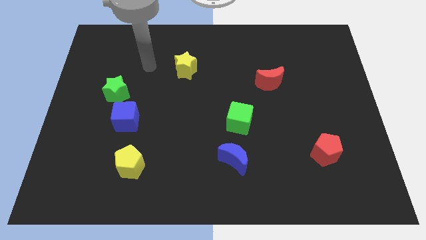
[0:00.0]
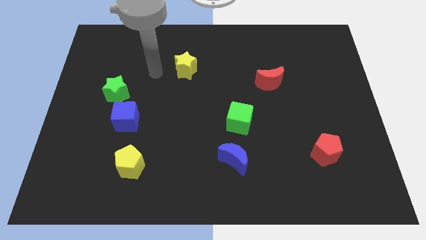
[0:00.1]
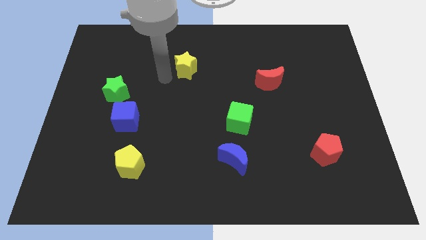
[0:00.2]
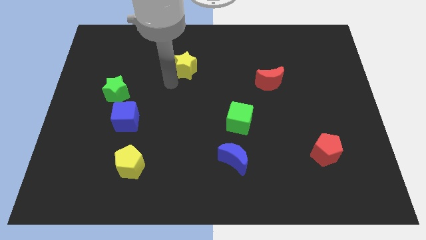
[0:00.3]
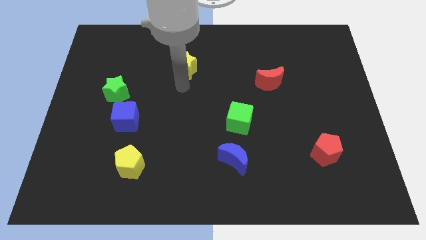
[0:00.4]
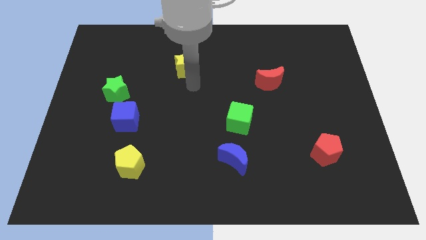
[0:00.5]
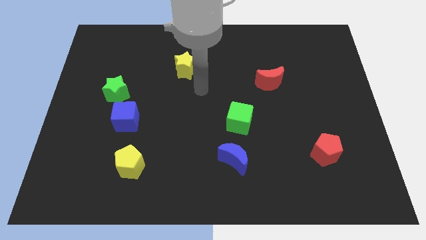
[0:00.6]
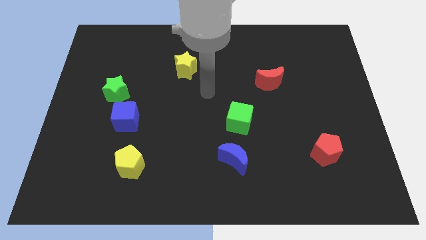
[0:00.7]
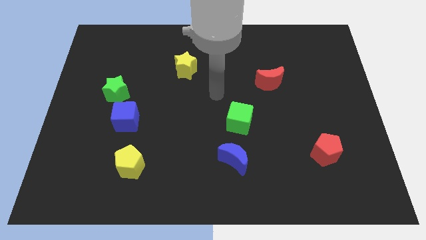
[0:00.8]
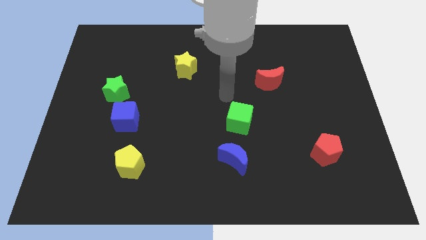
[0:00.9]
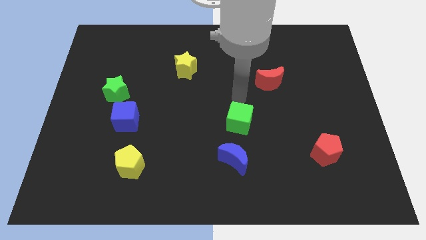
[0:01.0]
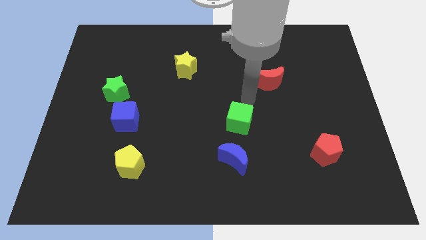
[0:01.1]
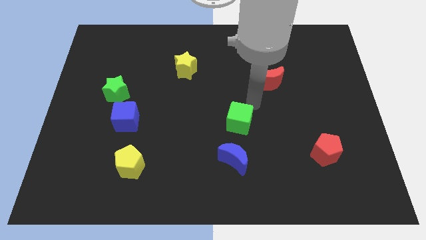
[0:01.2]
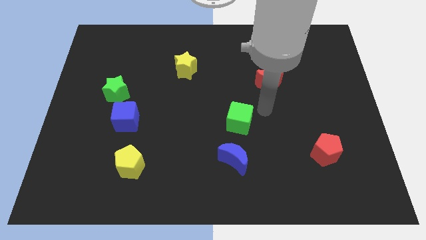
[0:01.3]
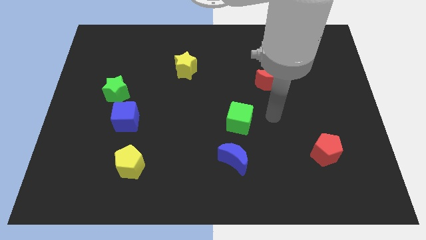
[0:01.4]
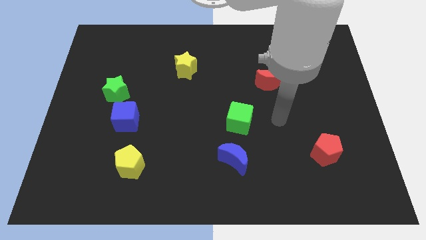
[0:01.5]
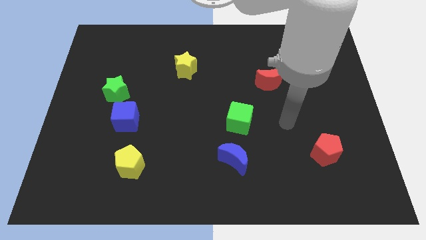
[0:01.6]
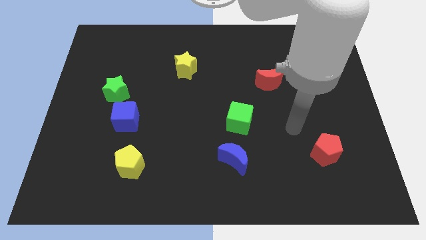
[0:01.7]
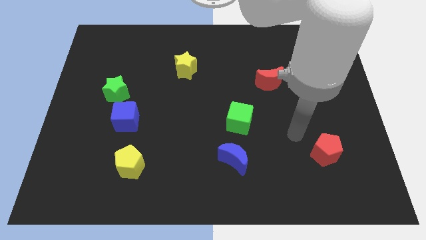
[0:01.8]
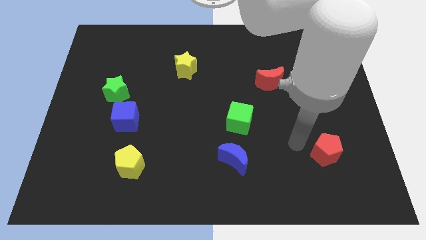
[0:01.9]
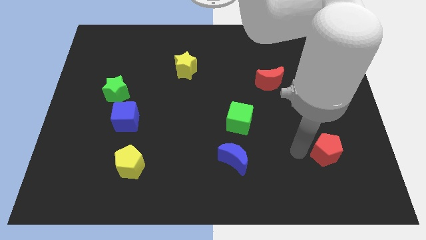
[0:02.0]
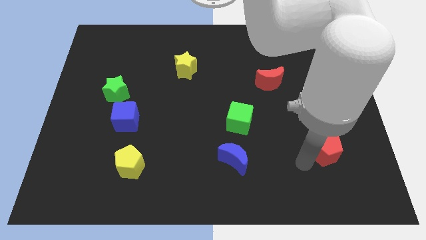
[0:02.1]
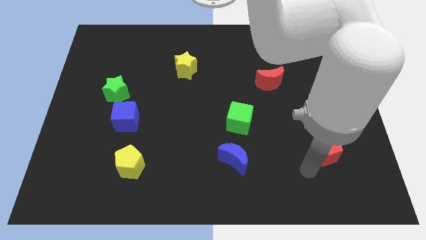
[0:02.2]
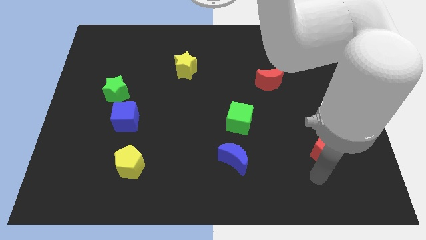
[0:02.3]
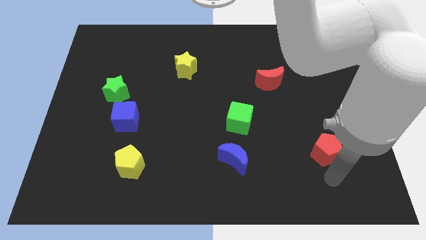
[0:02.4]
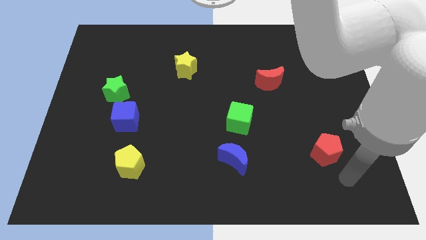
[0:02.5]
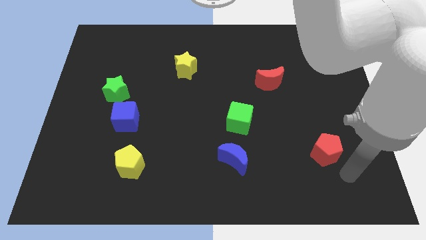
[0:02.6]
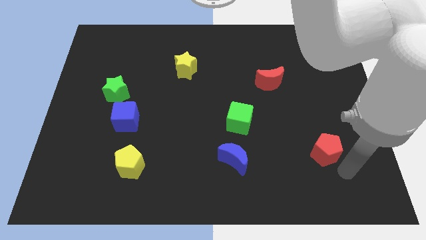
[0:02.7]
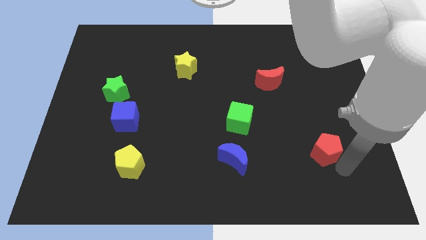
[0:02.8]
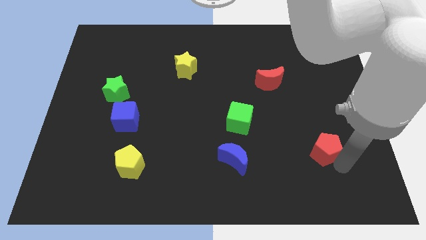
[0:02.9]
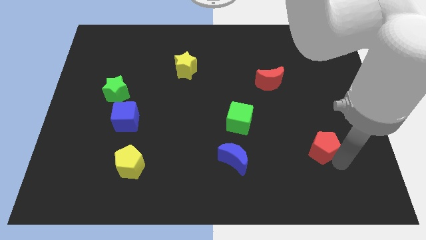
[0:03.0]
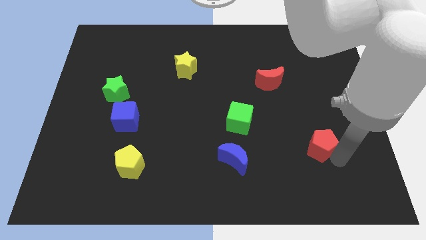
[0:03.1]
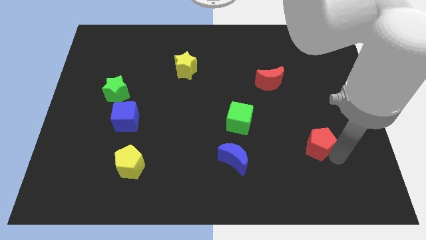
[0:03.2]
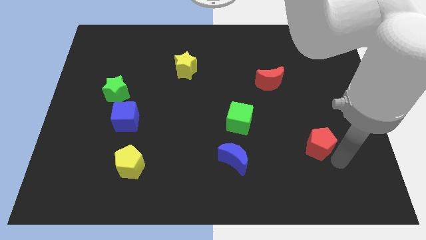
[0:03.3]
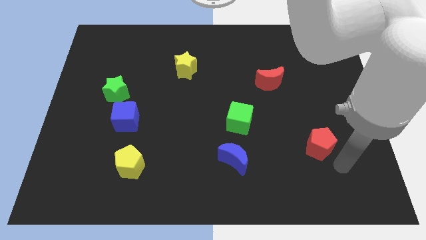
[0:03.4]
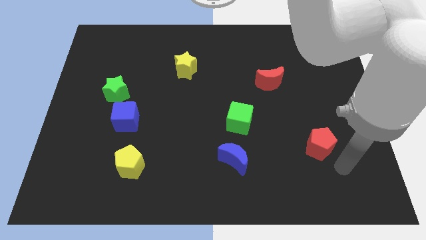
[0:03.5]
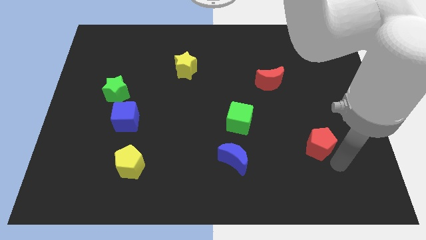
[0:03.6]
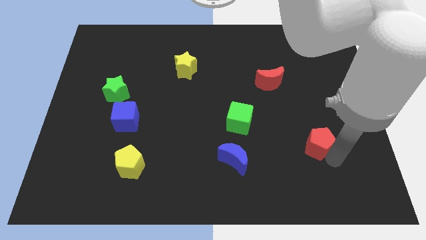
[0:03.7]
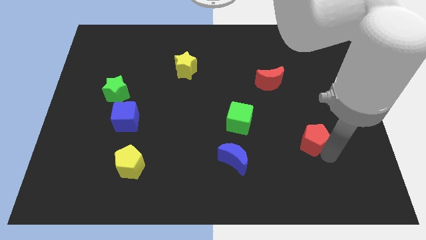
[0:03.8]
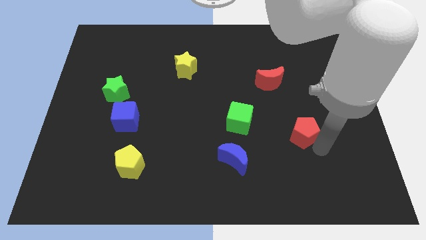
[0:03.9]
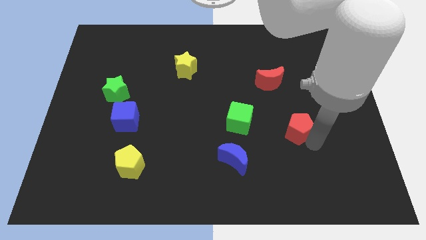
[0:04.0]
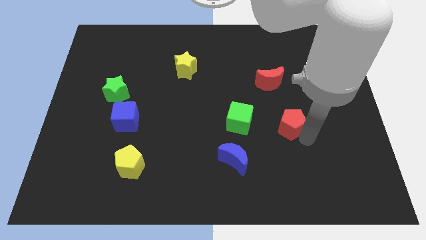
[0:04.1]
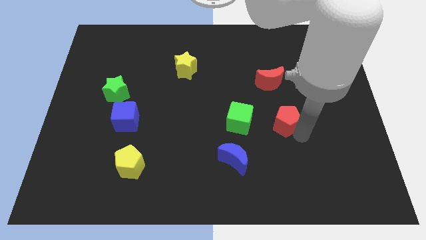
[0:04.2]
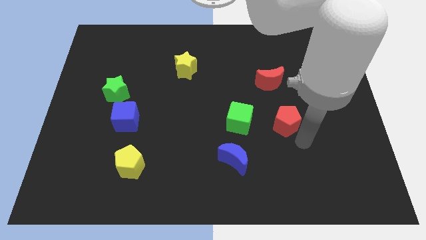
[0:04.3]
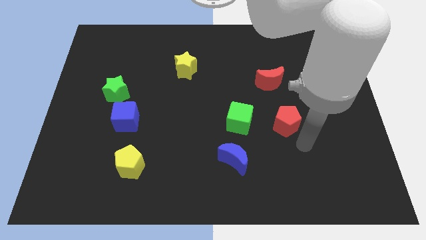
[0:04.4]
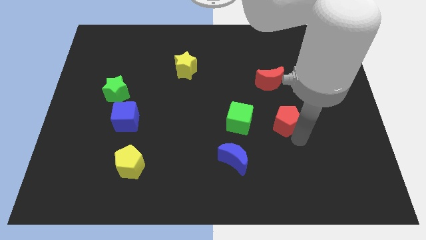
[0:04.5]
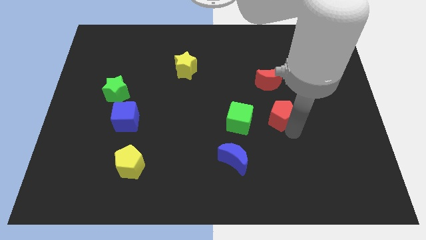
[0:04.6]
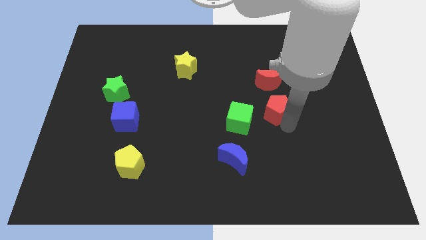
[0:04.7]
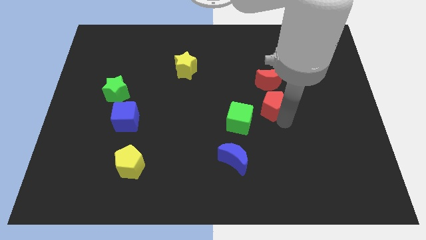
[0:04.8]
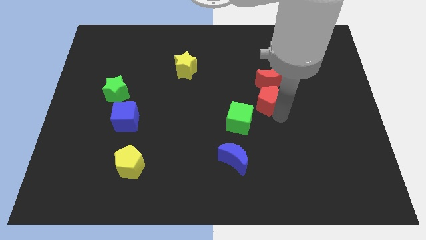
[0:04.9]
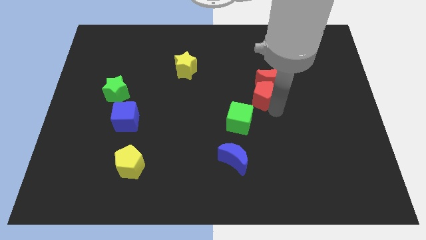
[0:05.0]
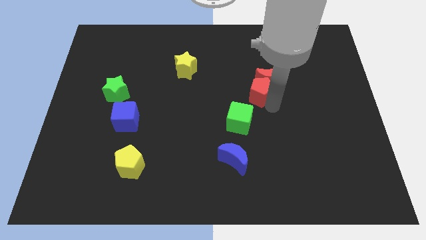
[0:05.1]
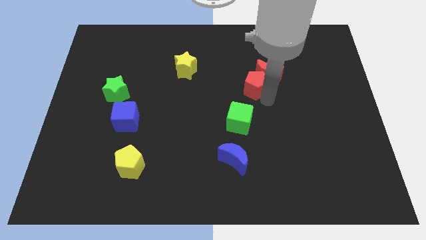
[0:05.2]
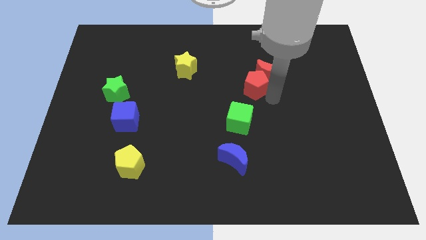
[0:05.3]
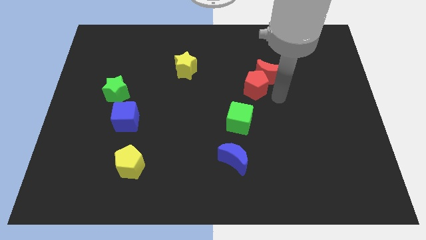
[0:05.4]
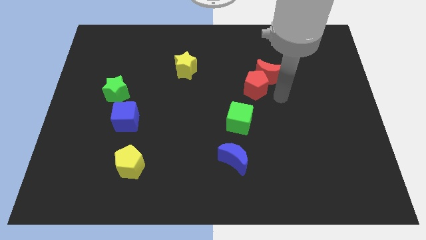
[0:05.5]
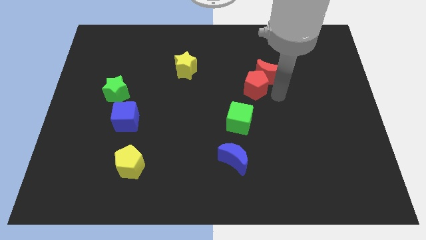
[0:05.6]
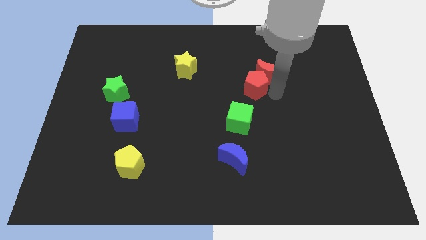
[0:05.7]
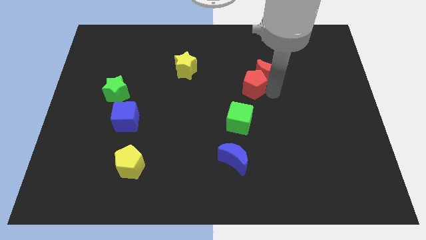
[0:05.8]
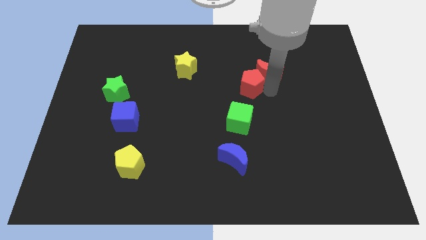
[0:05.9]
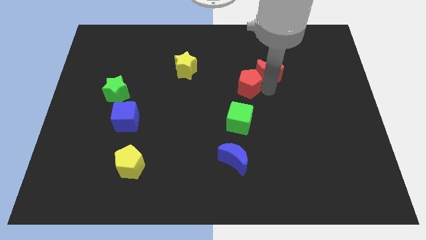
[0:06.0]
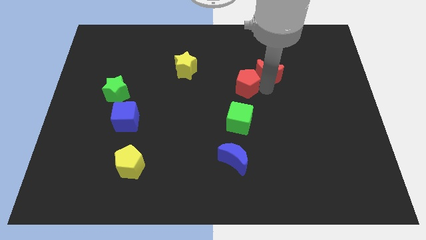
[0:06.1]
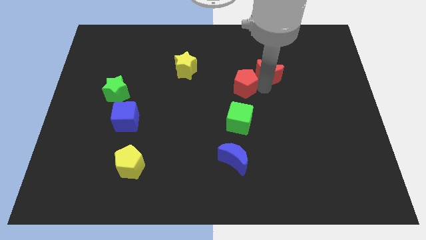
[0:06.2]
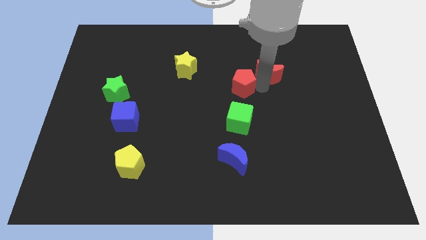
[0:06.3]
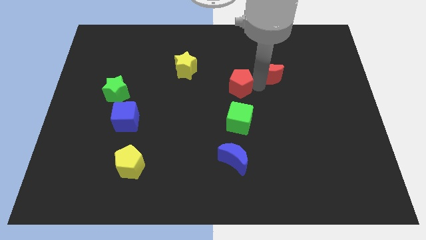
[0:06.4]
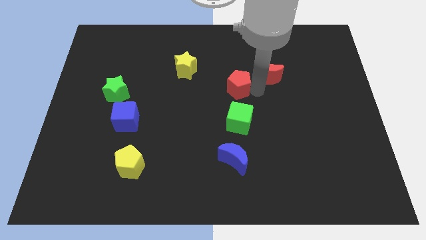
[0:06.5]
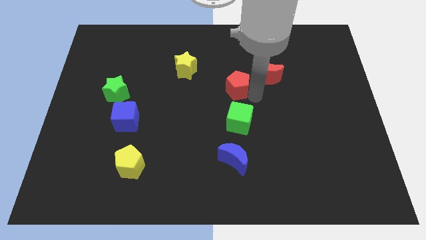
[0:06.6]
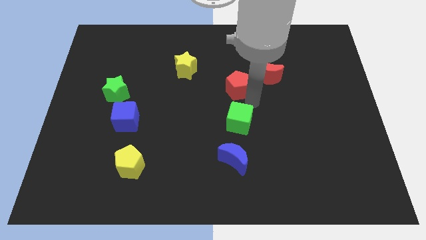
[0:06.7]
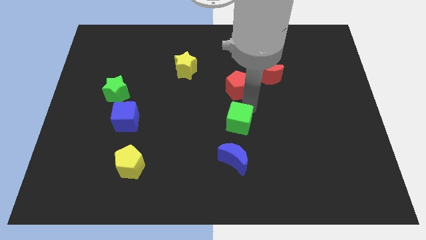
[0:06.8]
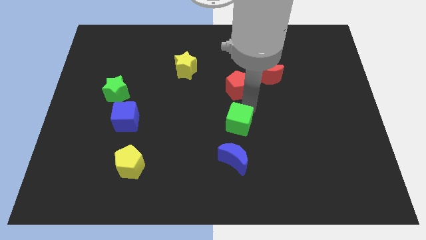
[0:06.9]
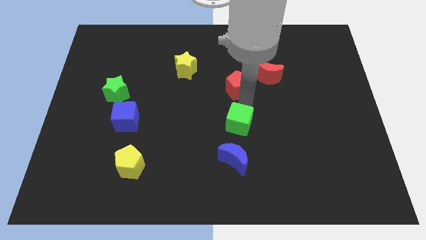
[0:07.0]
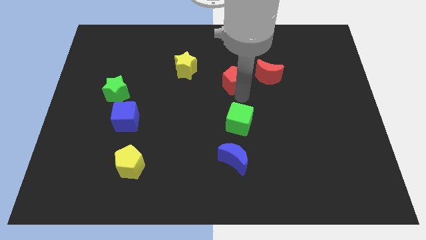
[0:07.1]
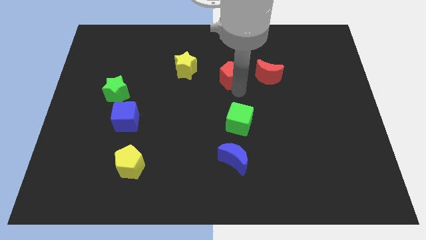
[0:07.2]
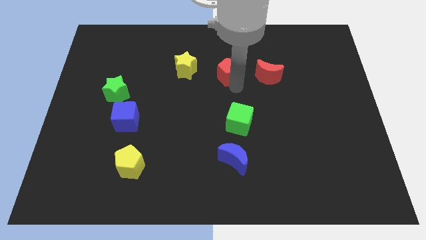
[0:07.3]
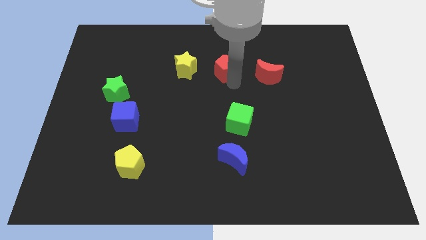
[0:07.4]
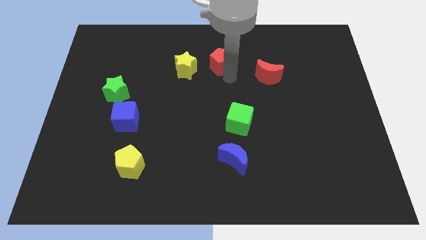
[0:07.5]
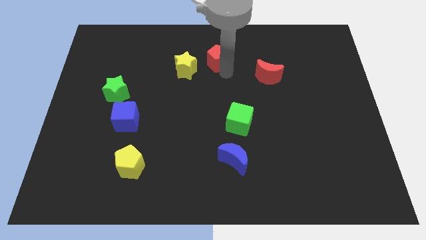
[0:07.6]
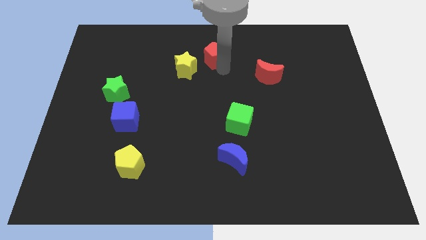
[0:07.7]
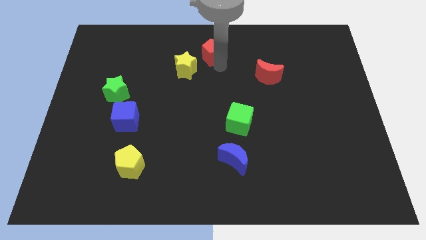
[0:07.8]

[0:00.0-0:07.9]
push the red pentagon to the towards your base
